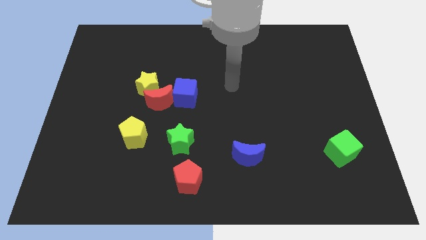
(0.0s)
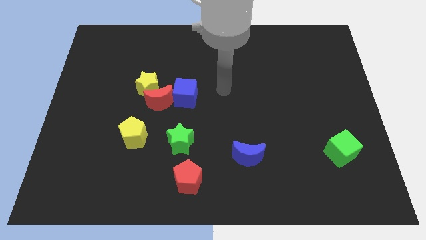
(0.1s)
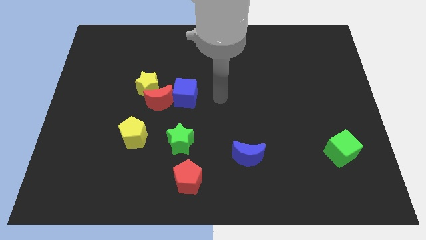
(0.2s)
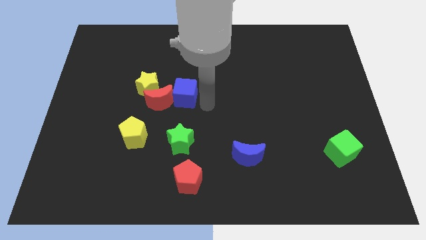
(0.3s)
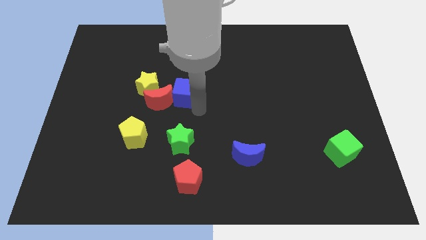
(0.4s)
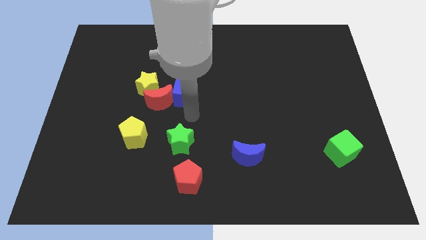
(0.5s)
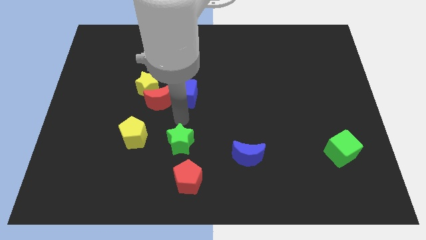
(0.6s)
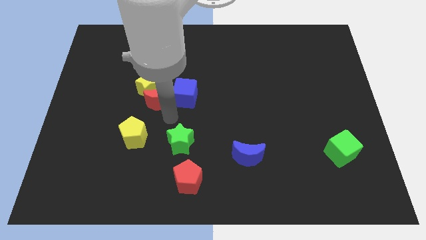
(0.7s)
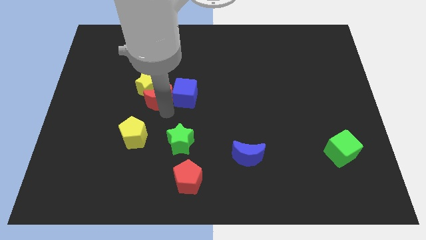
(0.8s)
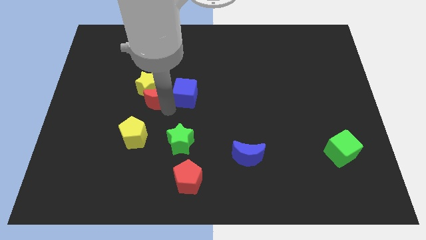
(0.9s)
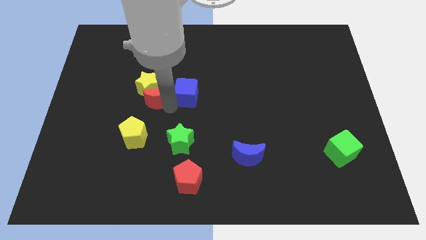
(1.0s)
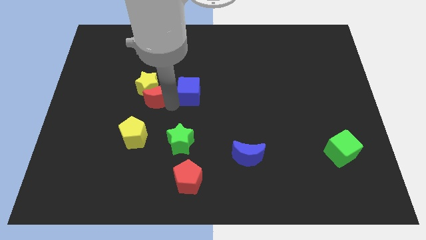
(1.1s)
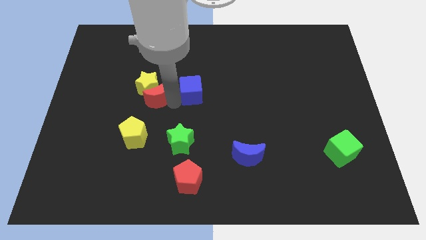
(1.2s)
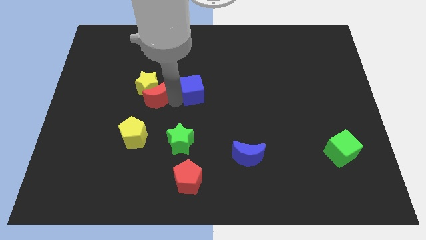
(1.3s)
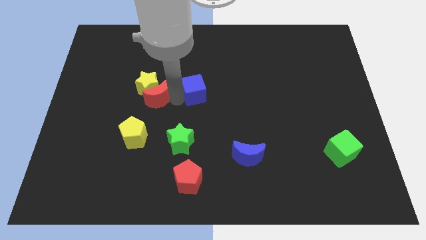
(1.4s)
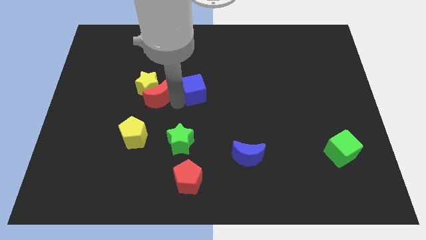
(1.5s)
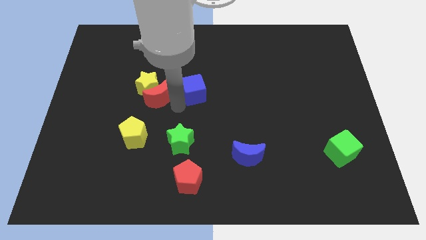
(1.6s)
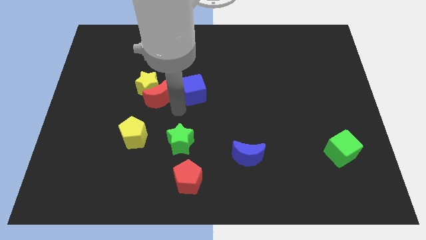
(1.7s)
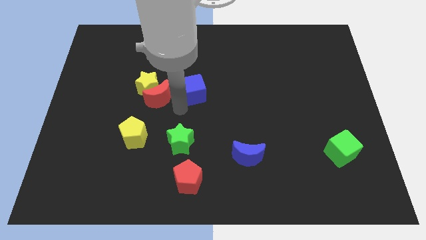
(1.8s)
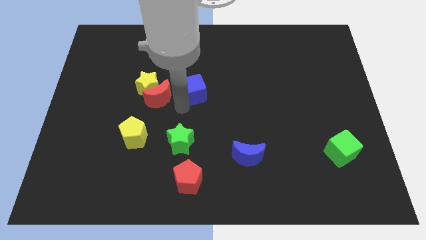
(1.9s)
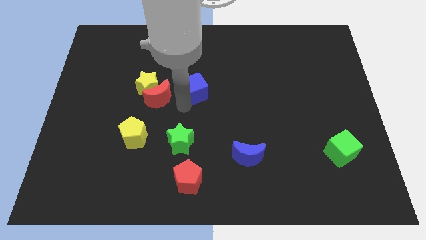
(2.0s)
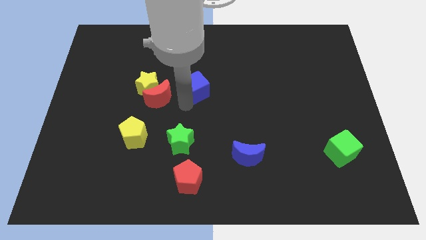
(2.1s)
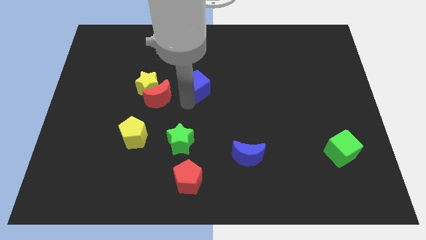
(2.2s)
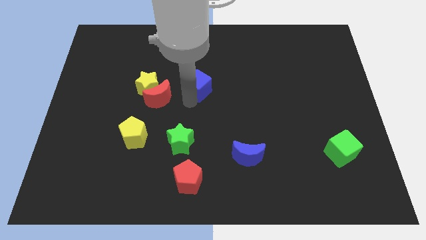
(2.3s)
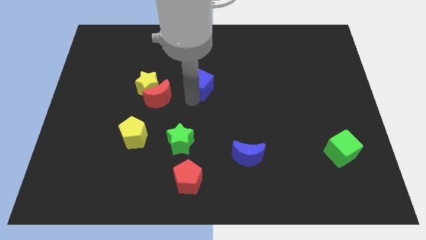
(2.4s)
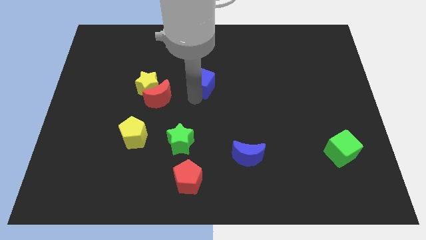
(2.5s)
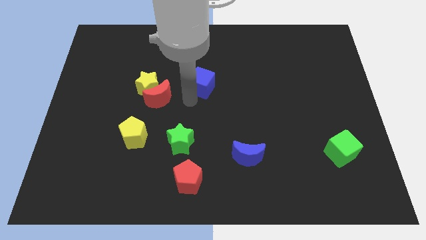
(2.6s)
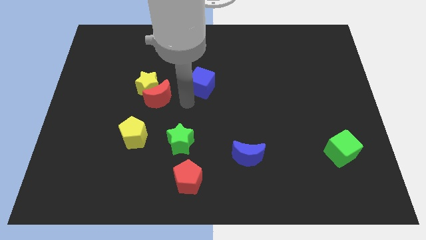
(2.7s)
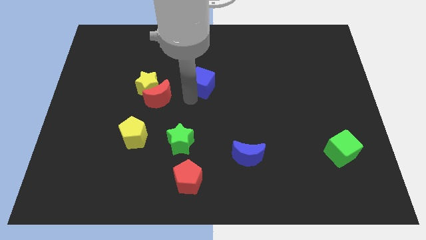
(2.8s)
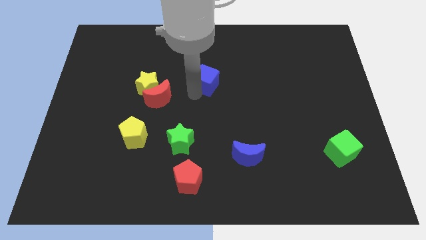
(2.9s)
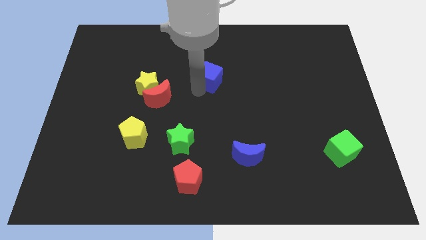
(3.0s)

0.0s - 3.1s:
slide the blue cube up and to the right diagonally a little

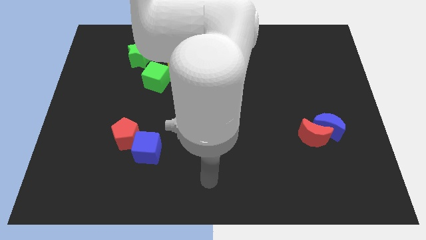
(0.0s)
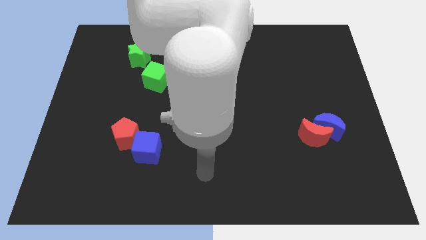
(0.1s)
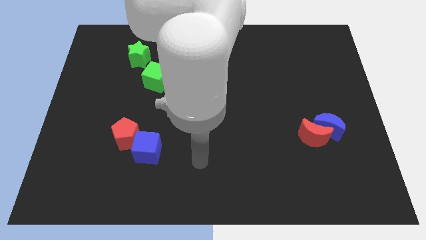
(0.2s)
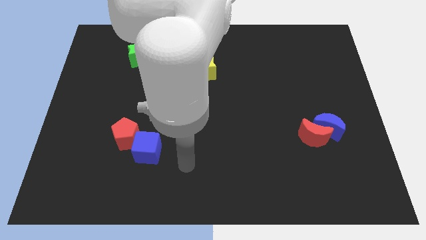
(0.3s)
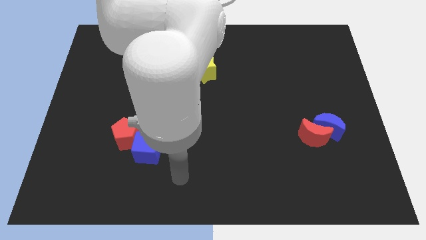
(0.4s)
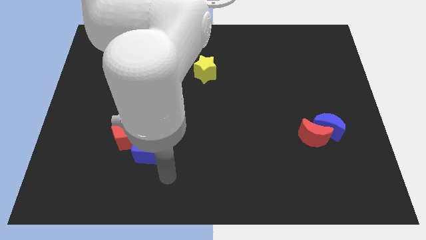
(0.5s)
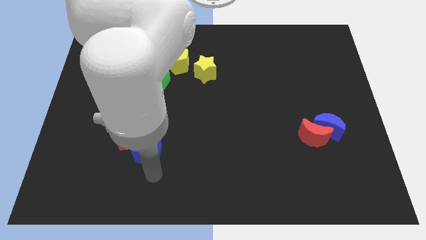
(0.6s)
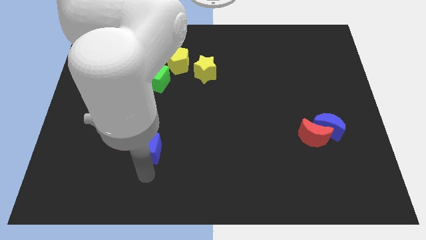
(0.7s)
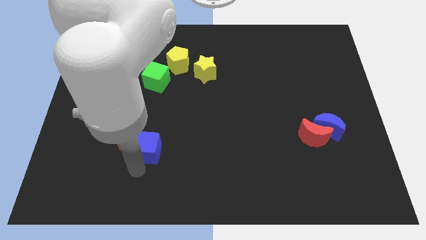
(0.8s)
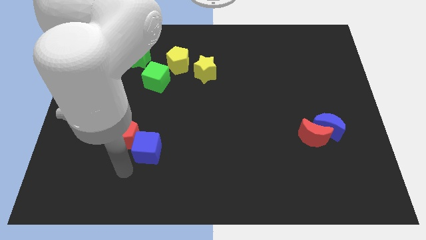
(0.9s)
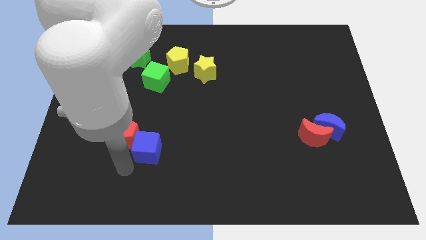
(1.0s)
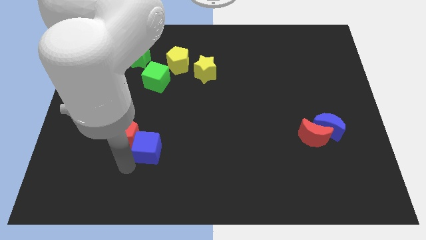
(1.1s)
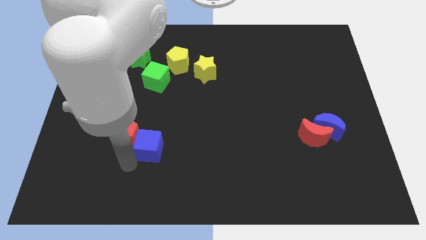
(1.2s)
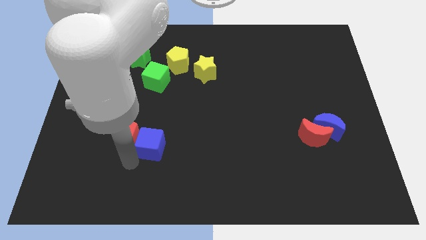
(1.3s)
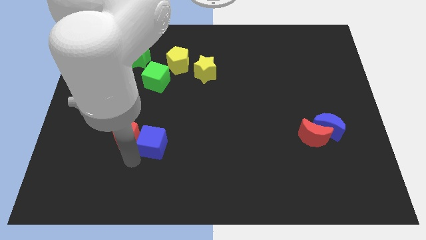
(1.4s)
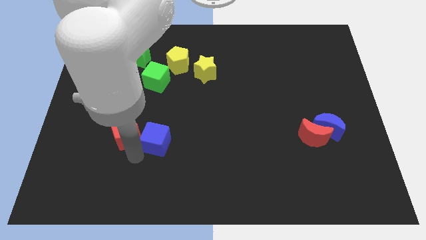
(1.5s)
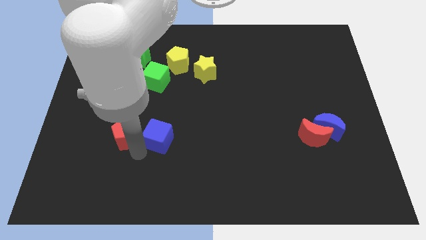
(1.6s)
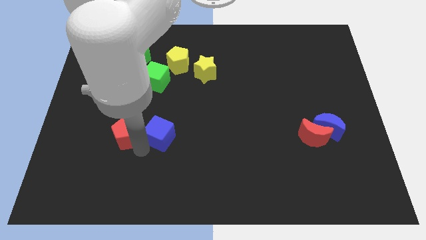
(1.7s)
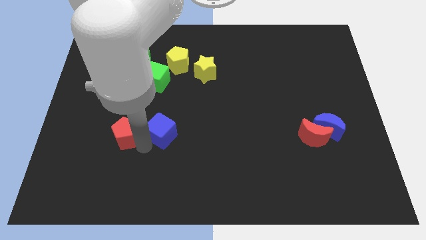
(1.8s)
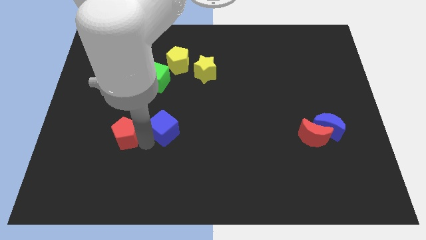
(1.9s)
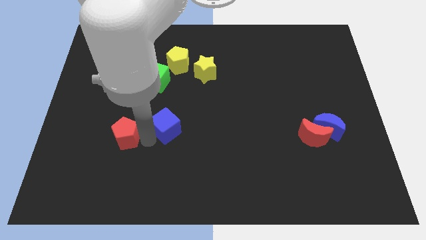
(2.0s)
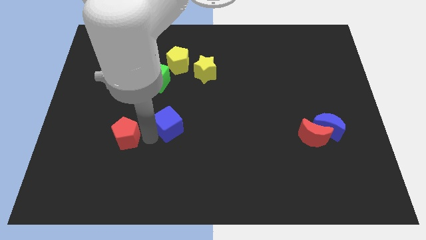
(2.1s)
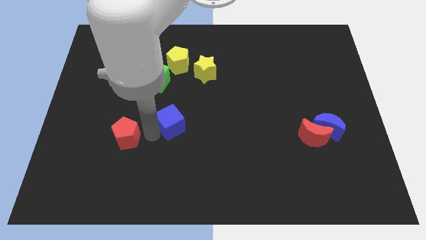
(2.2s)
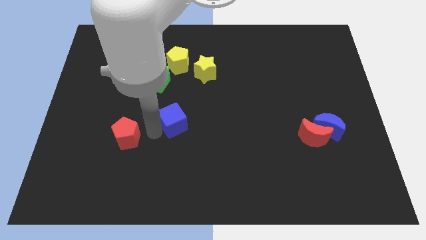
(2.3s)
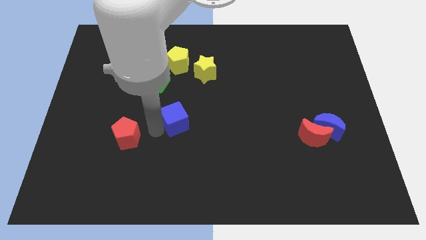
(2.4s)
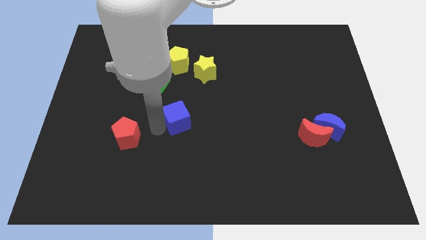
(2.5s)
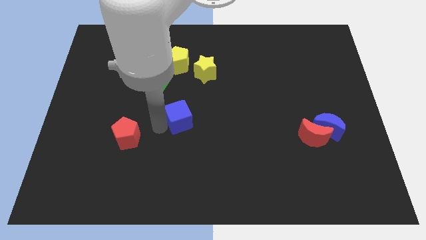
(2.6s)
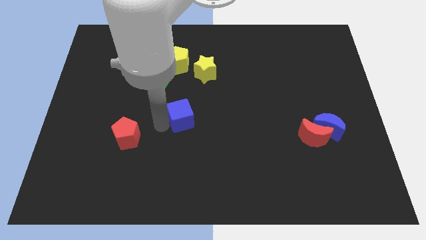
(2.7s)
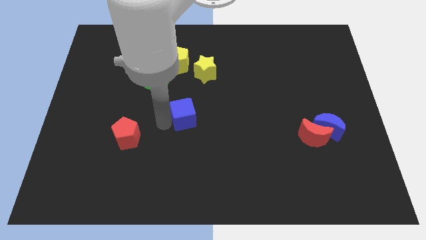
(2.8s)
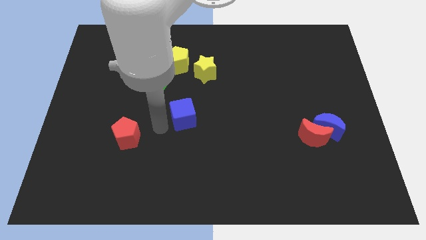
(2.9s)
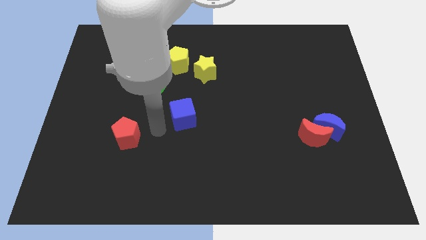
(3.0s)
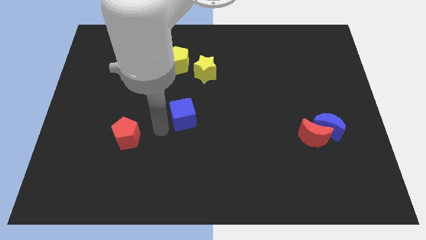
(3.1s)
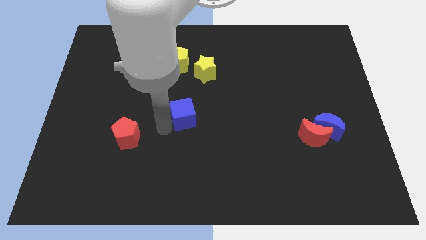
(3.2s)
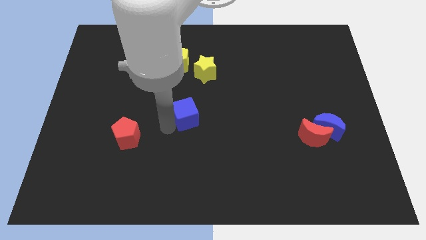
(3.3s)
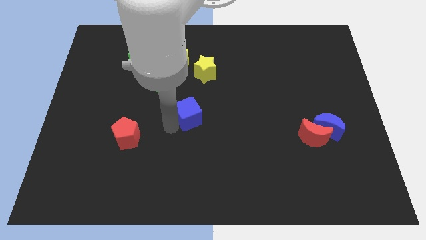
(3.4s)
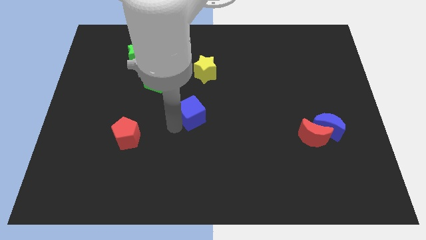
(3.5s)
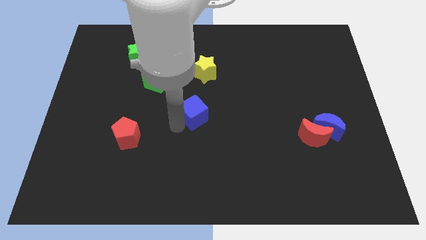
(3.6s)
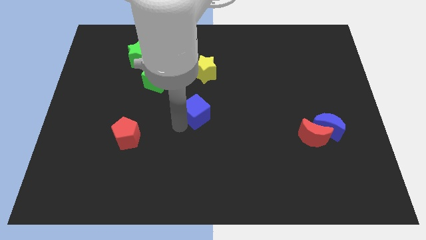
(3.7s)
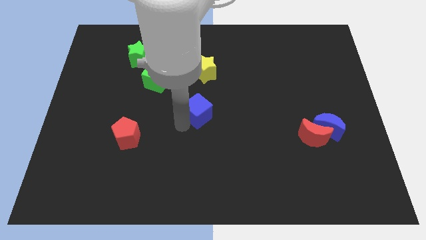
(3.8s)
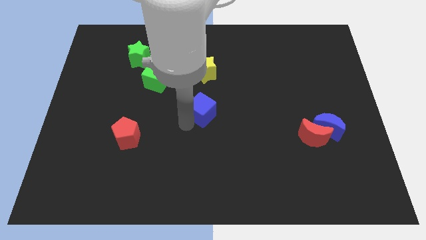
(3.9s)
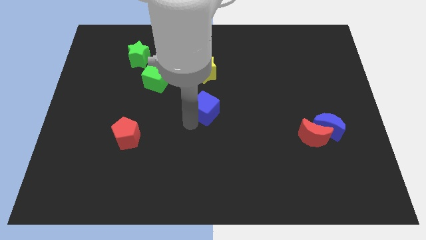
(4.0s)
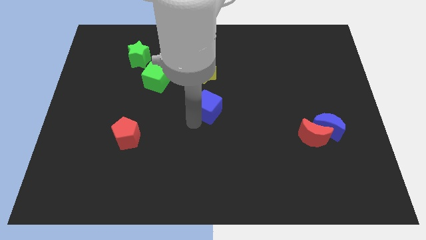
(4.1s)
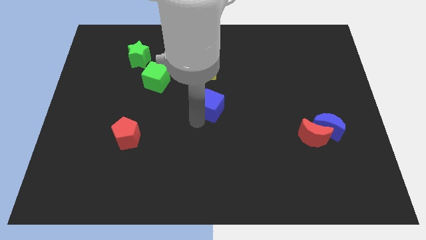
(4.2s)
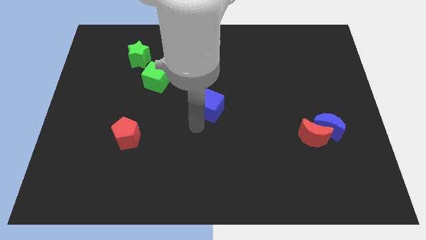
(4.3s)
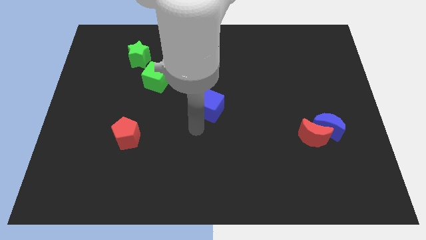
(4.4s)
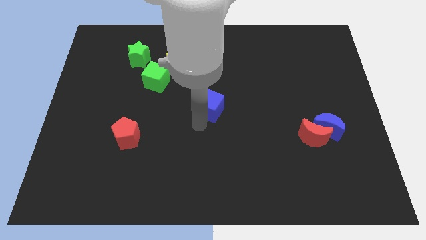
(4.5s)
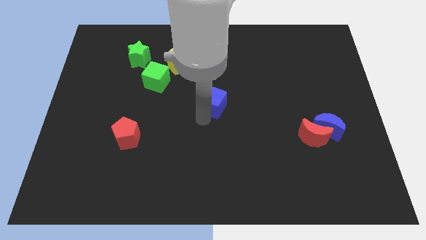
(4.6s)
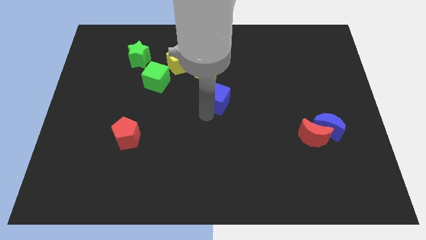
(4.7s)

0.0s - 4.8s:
push the blue cube up and to the right diagonally
